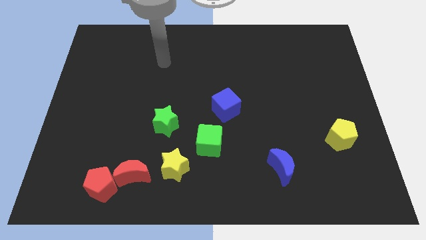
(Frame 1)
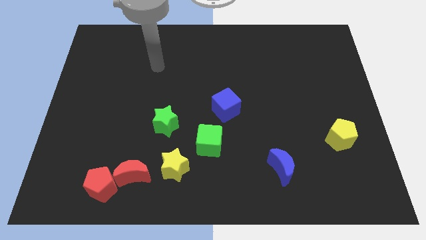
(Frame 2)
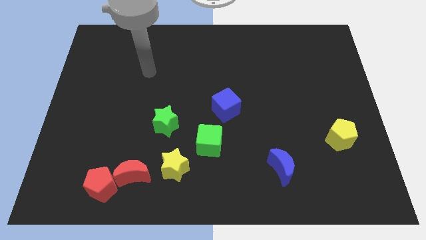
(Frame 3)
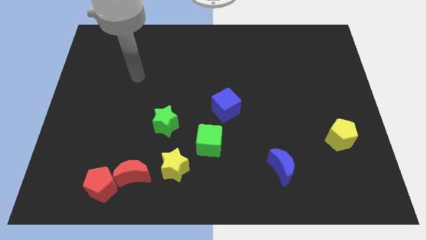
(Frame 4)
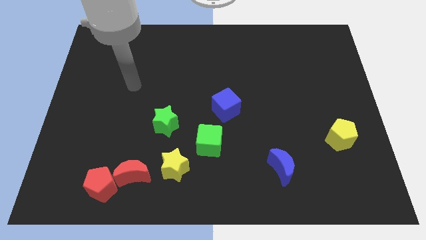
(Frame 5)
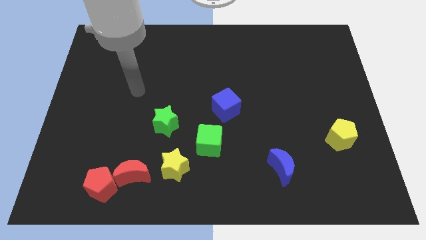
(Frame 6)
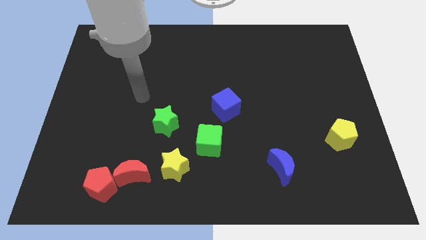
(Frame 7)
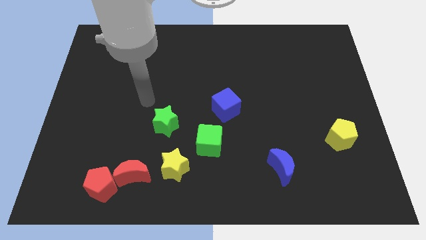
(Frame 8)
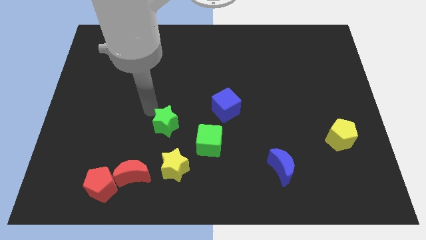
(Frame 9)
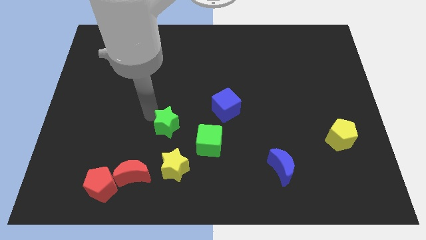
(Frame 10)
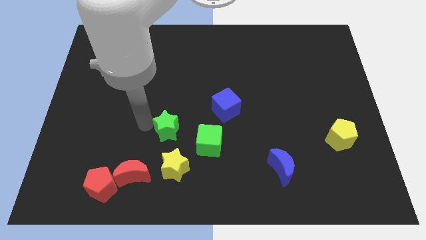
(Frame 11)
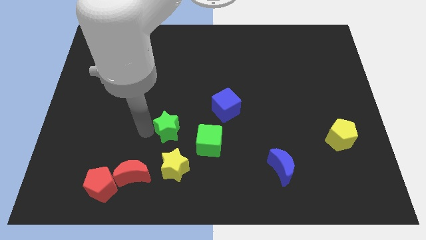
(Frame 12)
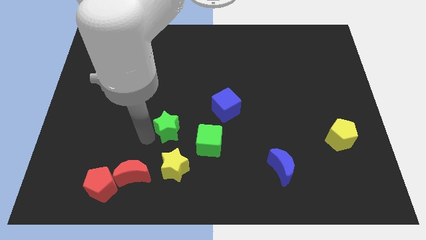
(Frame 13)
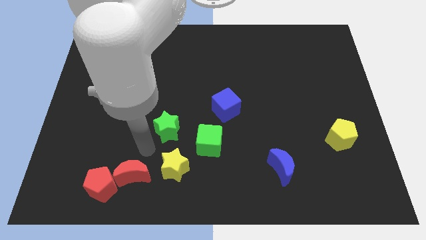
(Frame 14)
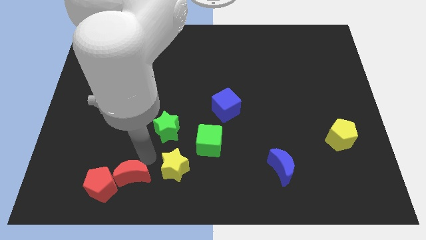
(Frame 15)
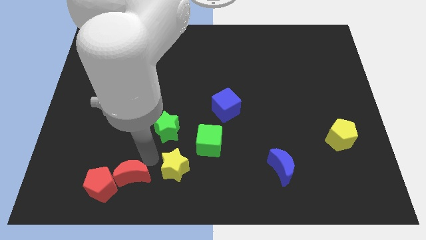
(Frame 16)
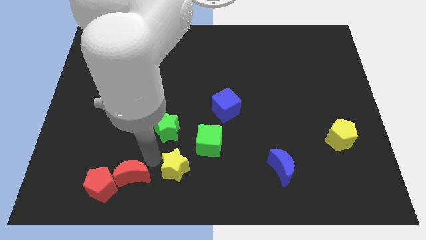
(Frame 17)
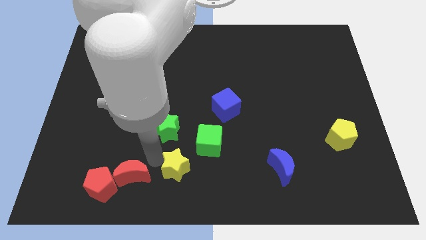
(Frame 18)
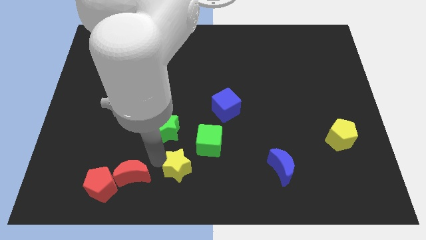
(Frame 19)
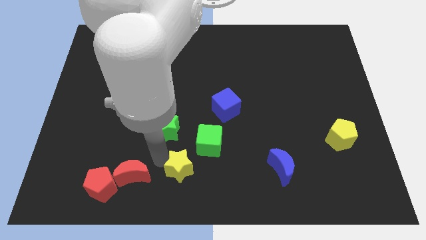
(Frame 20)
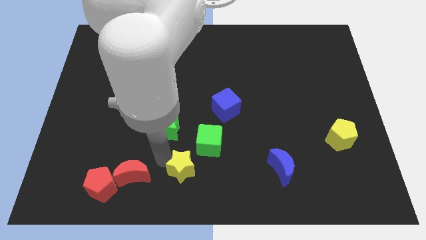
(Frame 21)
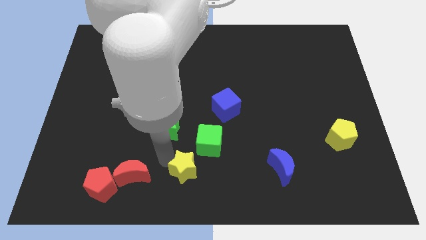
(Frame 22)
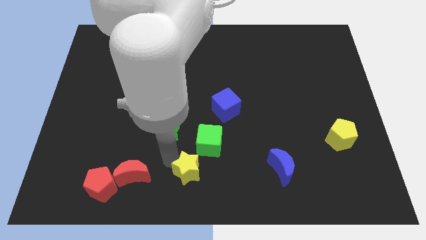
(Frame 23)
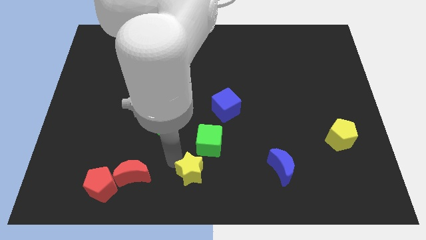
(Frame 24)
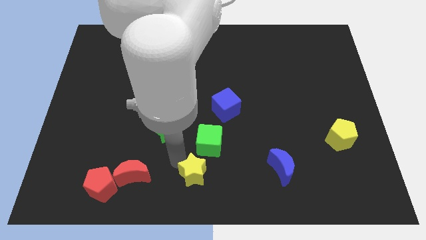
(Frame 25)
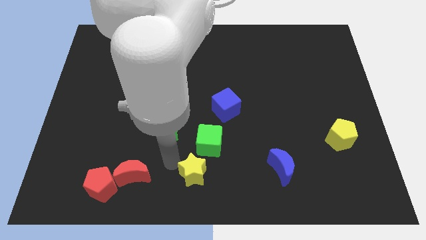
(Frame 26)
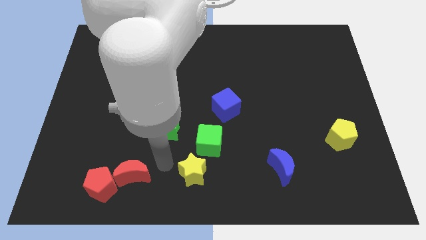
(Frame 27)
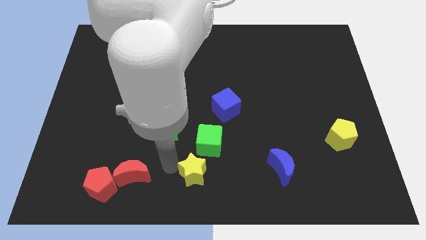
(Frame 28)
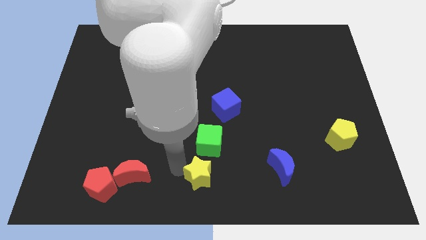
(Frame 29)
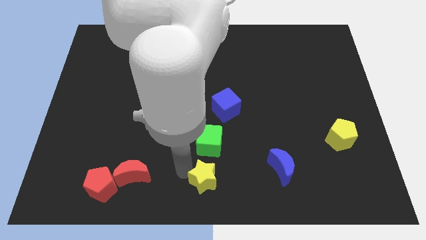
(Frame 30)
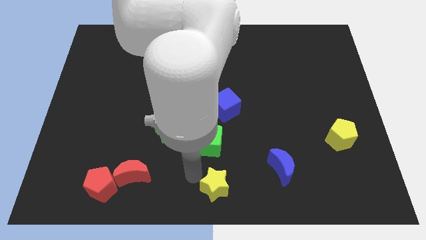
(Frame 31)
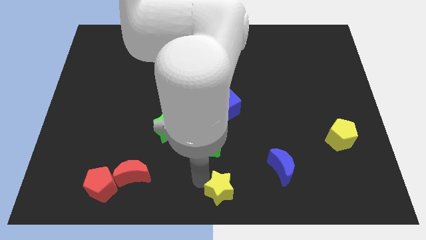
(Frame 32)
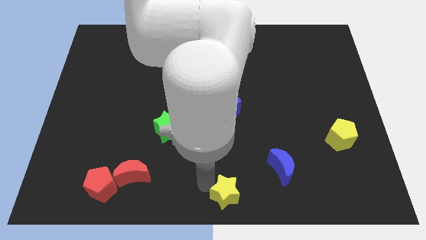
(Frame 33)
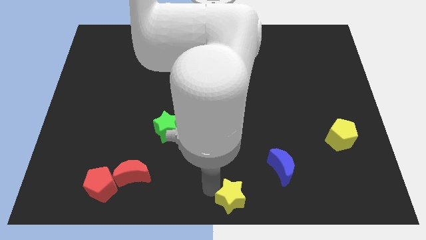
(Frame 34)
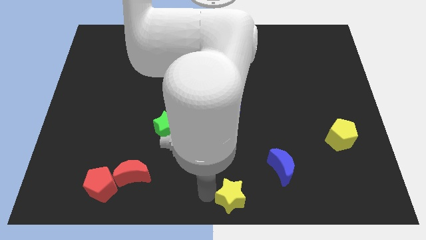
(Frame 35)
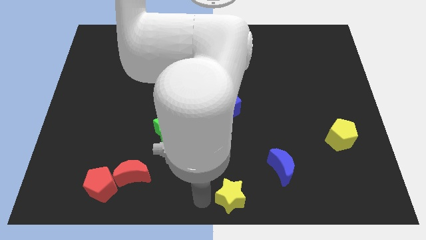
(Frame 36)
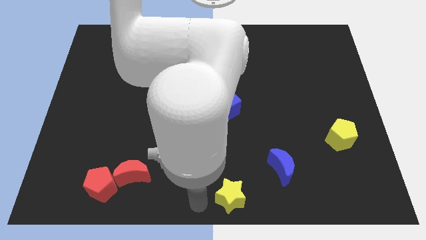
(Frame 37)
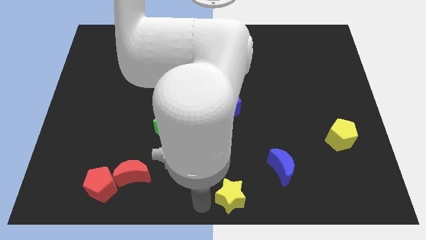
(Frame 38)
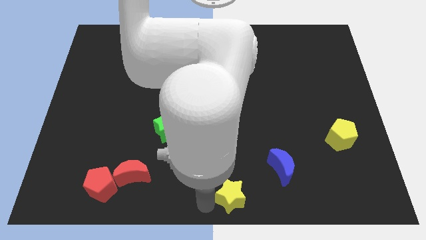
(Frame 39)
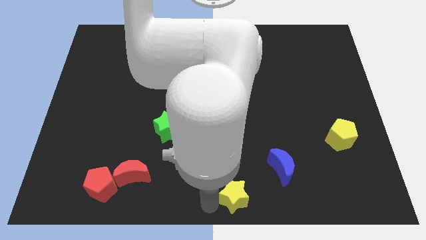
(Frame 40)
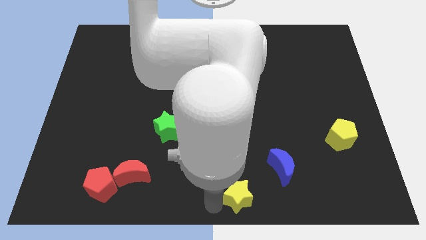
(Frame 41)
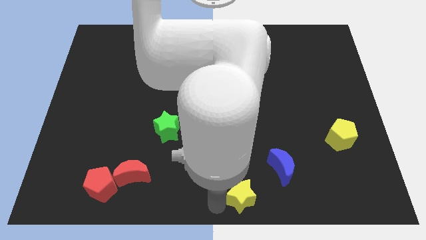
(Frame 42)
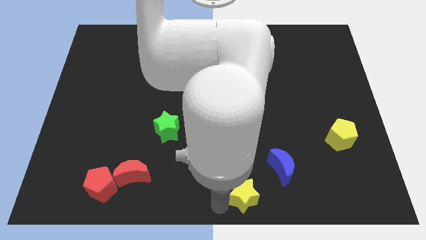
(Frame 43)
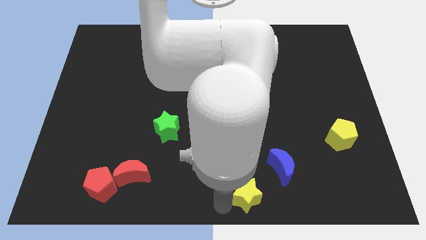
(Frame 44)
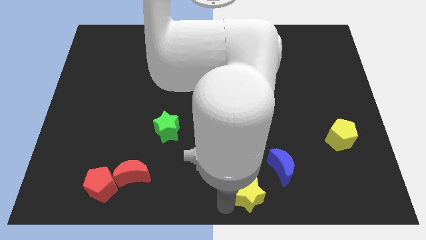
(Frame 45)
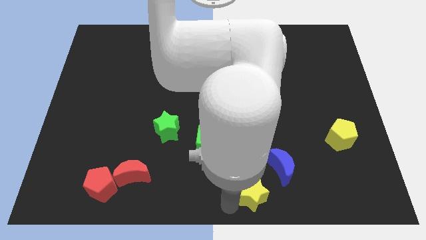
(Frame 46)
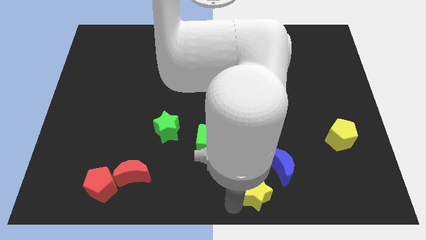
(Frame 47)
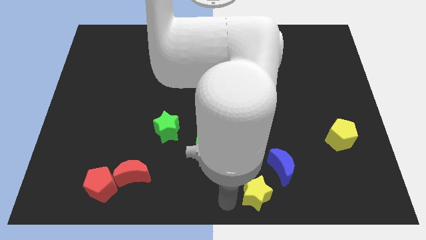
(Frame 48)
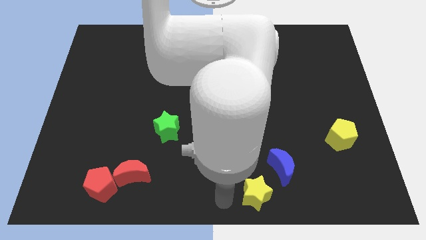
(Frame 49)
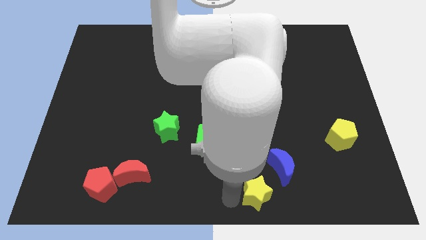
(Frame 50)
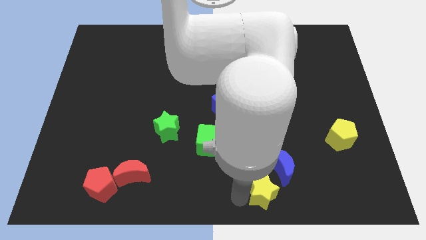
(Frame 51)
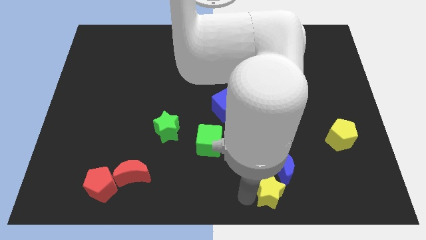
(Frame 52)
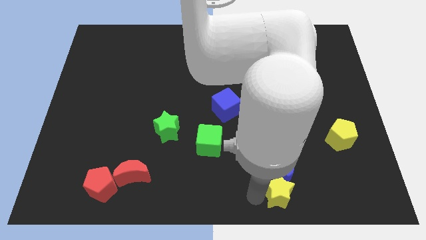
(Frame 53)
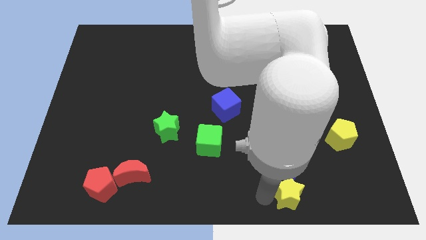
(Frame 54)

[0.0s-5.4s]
move the yellow star right

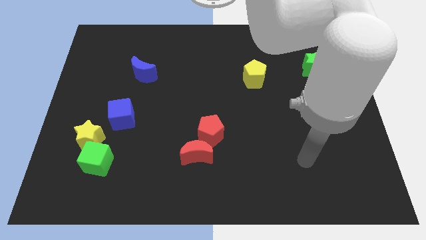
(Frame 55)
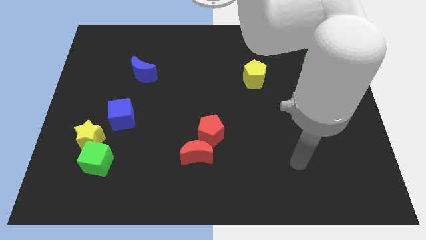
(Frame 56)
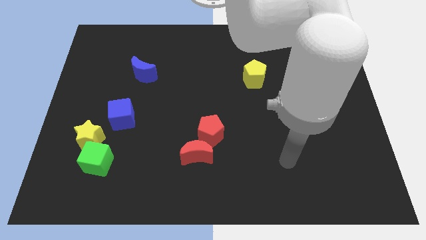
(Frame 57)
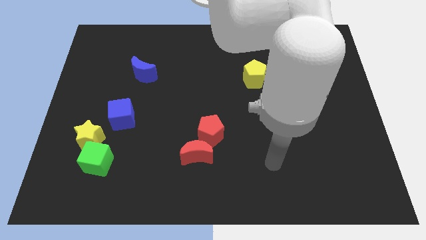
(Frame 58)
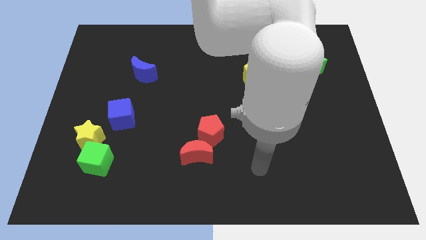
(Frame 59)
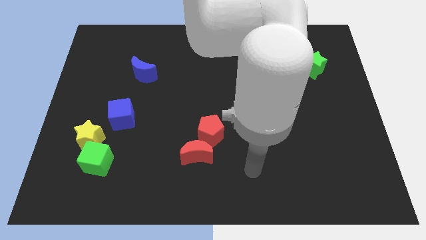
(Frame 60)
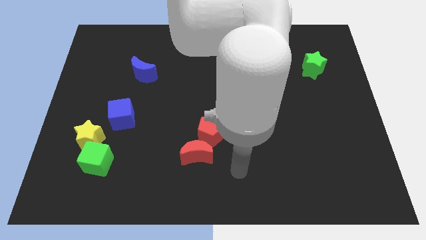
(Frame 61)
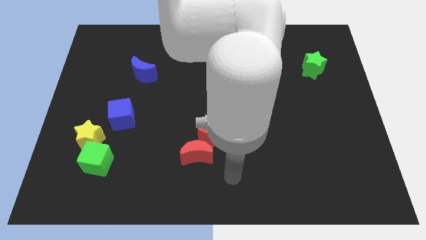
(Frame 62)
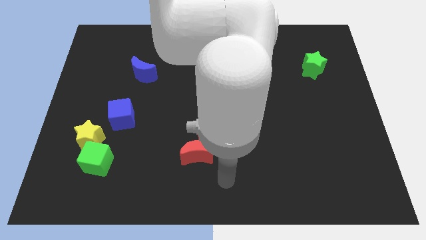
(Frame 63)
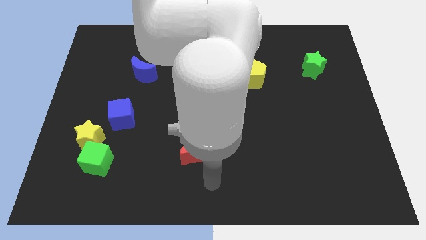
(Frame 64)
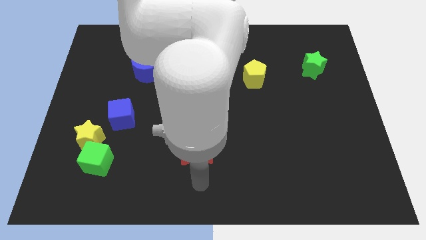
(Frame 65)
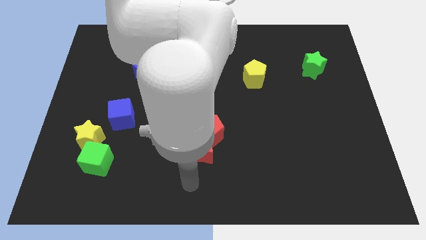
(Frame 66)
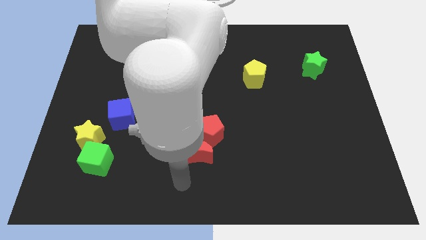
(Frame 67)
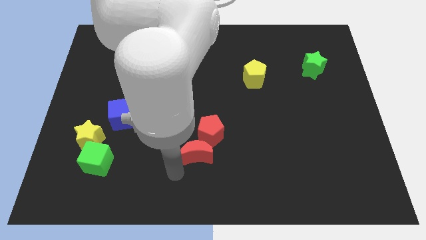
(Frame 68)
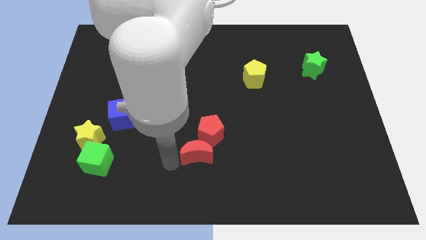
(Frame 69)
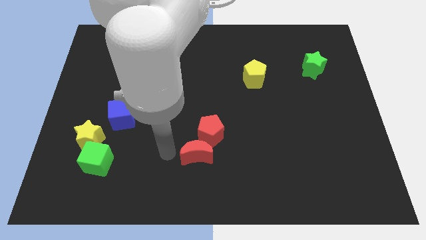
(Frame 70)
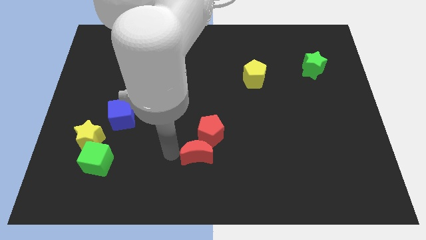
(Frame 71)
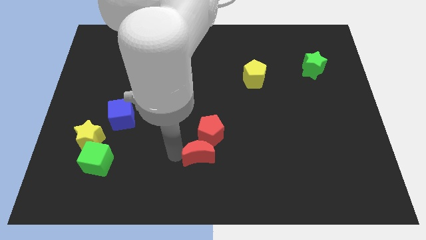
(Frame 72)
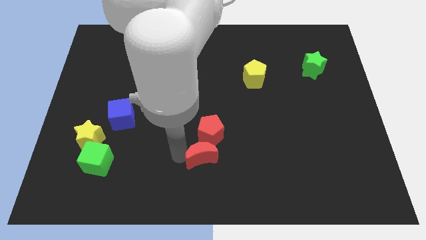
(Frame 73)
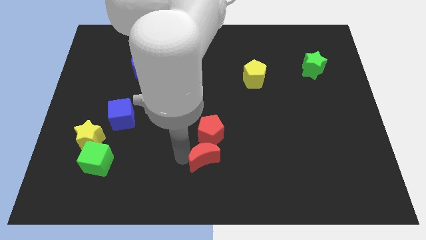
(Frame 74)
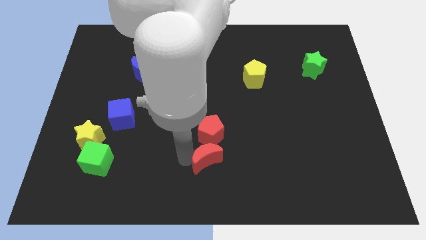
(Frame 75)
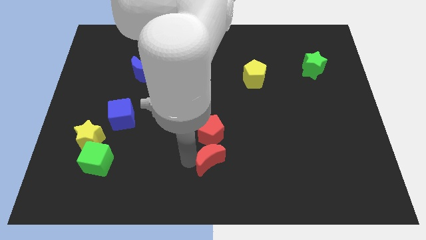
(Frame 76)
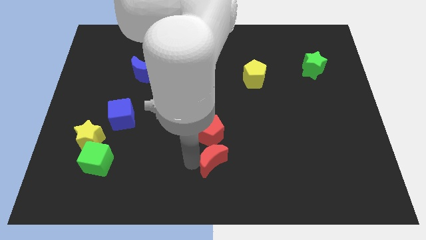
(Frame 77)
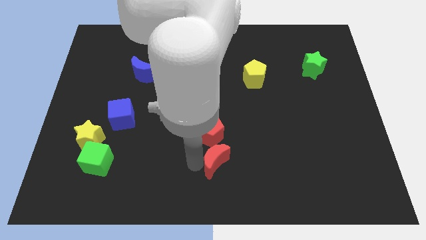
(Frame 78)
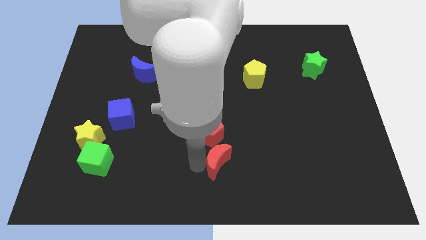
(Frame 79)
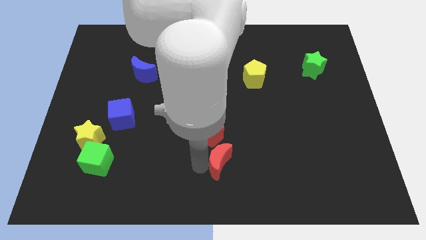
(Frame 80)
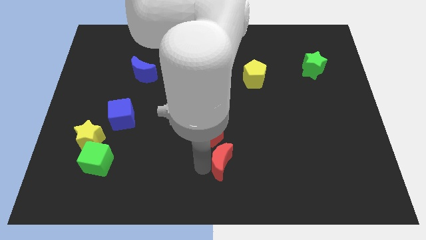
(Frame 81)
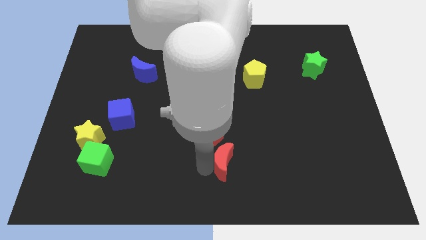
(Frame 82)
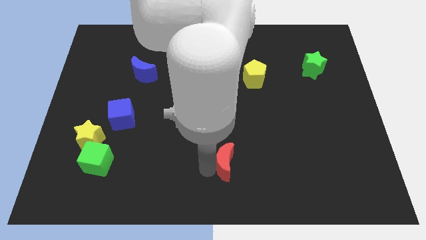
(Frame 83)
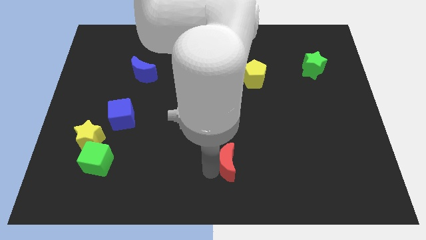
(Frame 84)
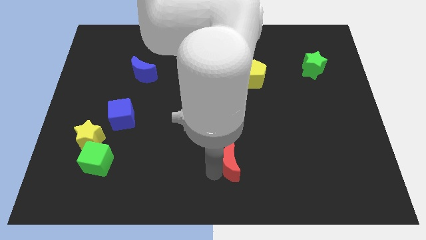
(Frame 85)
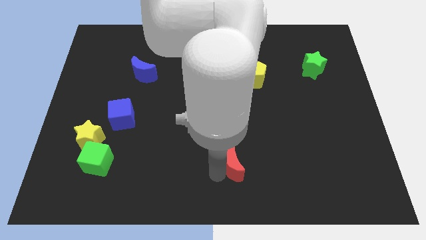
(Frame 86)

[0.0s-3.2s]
slightly push the red moon to the right
